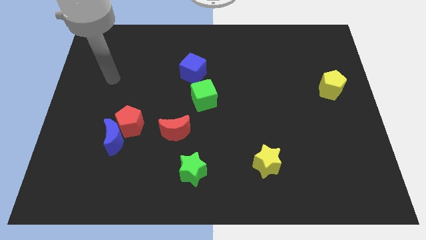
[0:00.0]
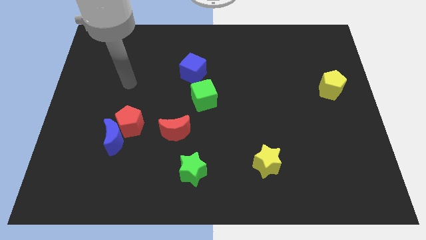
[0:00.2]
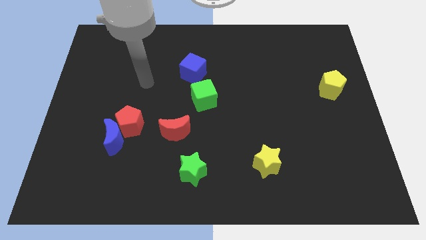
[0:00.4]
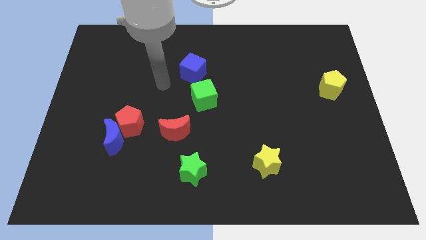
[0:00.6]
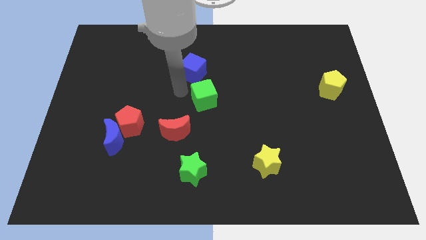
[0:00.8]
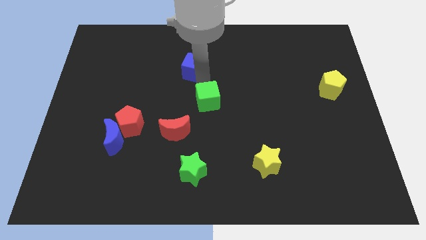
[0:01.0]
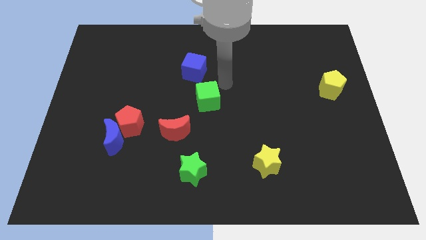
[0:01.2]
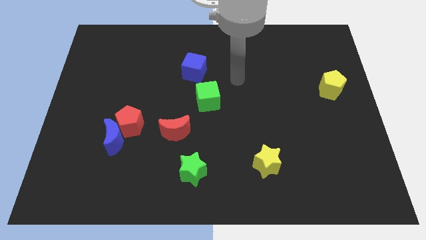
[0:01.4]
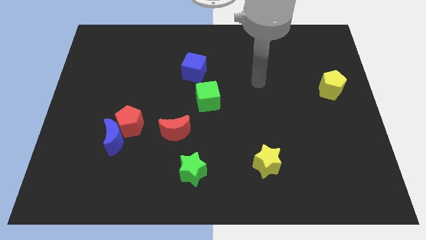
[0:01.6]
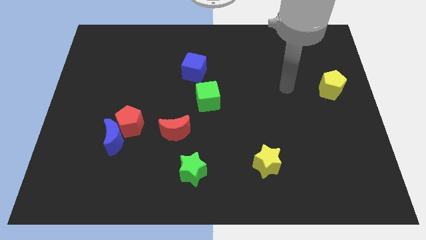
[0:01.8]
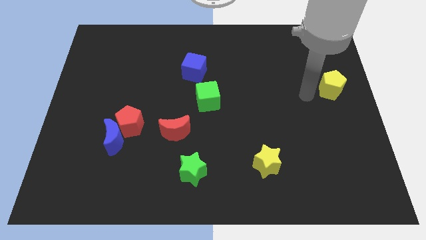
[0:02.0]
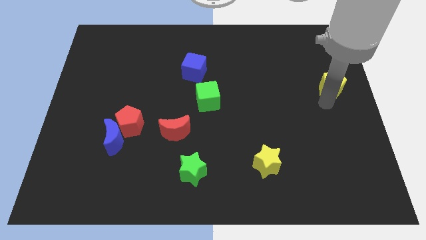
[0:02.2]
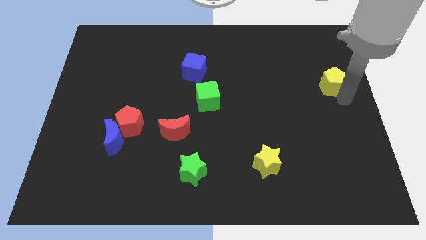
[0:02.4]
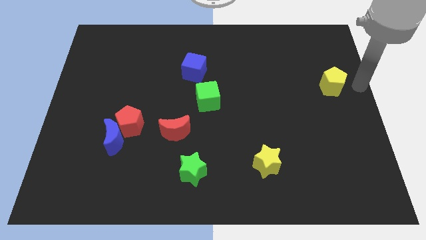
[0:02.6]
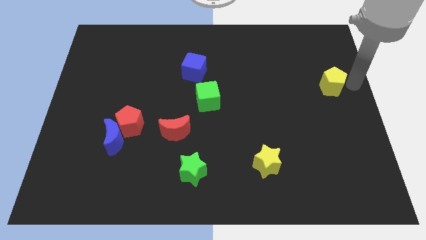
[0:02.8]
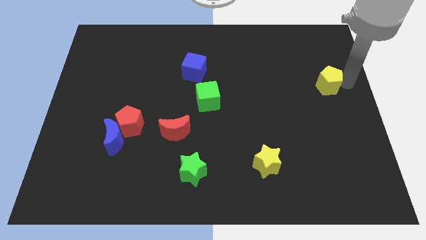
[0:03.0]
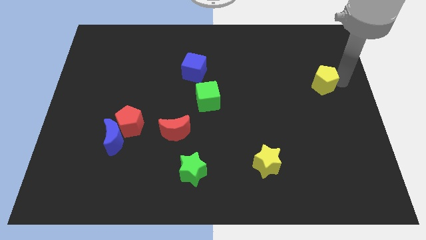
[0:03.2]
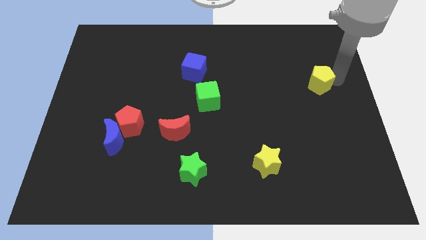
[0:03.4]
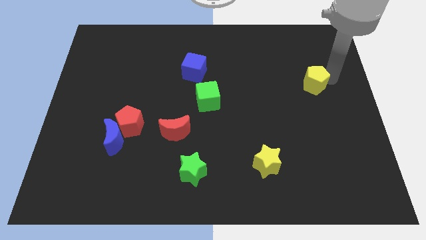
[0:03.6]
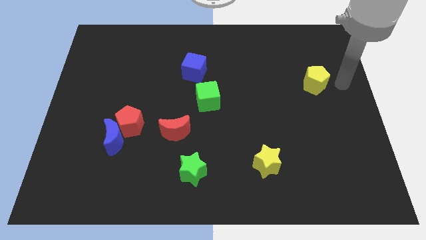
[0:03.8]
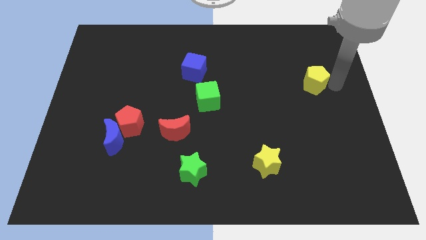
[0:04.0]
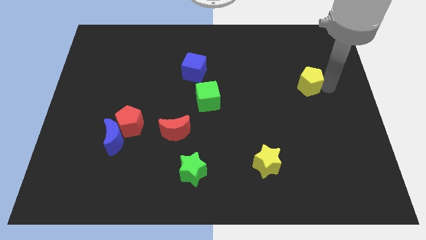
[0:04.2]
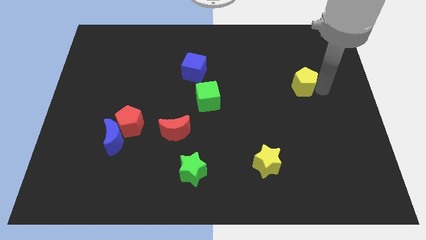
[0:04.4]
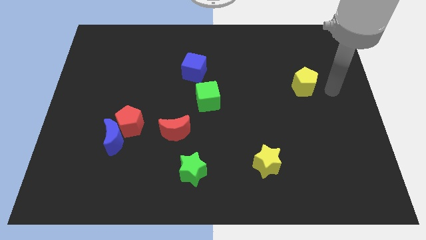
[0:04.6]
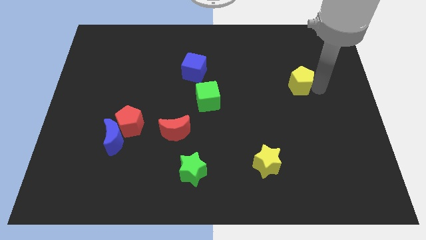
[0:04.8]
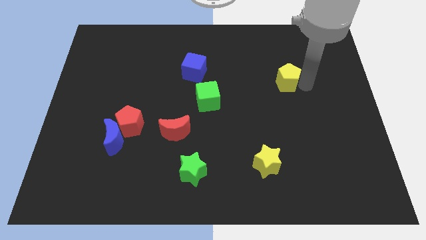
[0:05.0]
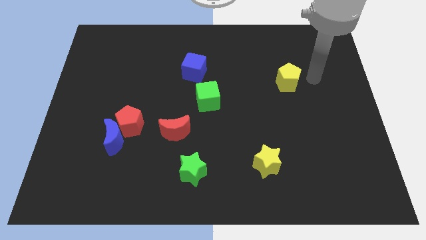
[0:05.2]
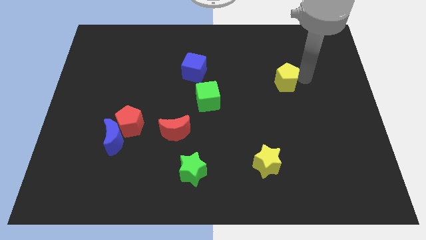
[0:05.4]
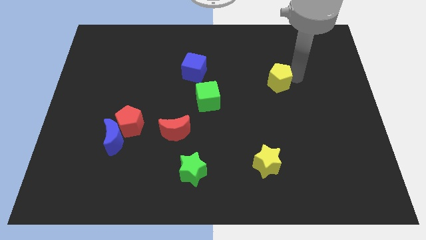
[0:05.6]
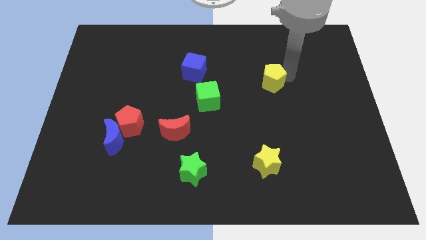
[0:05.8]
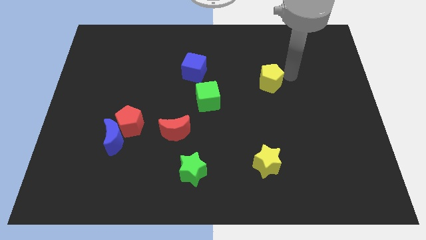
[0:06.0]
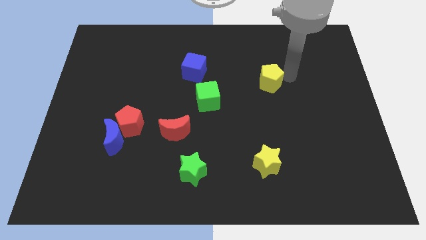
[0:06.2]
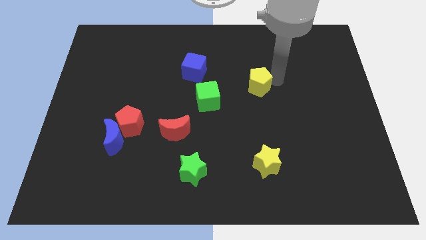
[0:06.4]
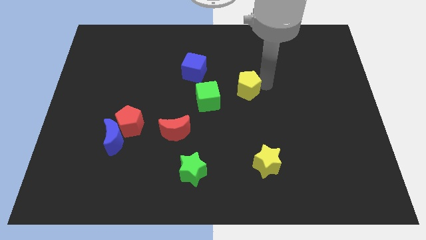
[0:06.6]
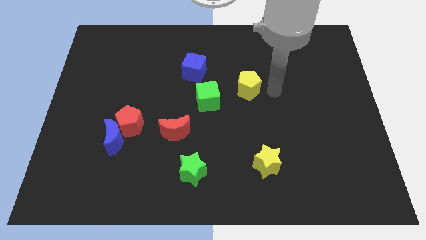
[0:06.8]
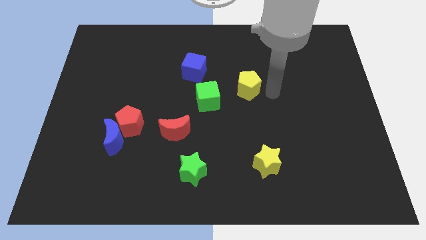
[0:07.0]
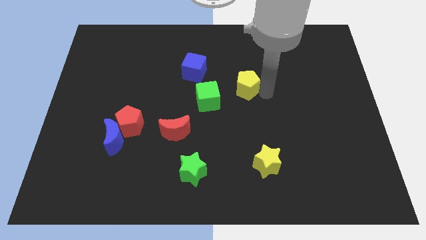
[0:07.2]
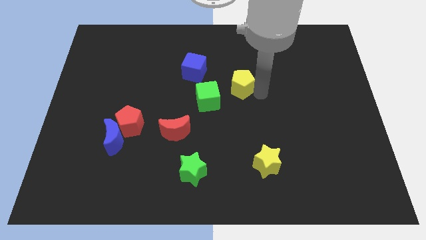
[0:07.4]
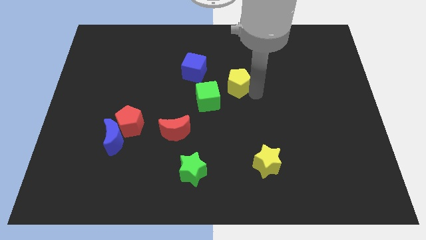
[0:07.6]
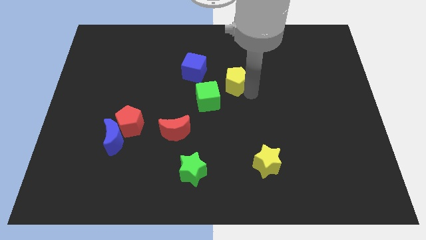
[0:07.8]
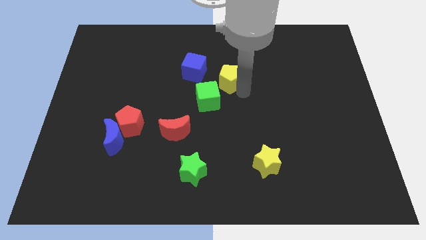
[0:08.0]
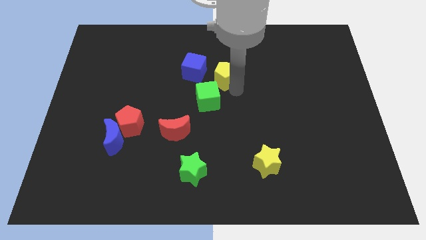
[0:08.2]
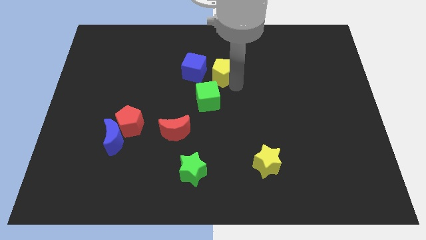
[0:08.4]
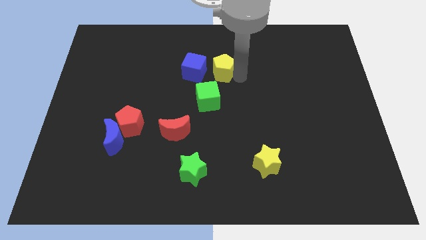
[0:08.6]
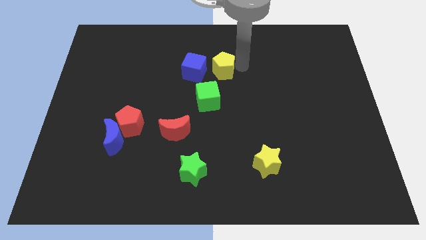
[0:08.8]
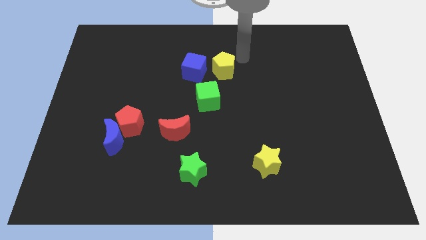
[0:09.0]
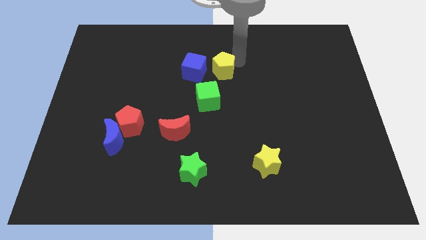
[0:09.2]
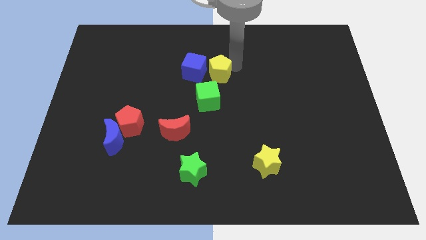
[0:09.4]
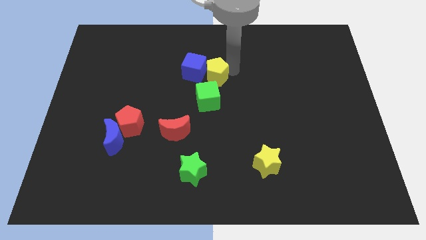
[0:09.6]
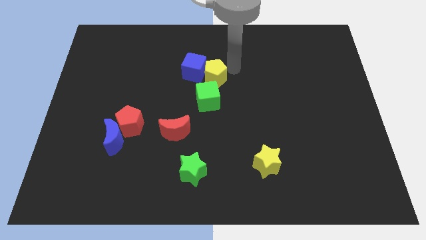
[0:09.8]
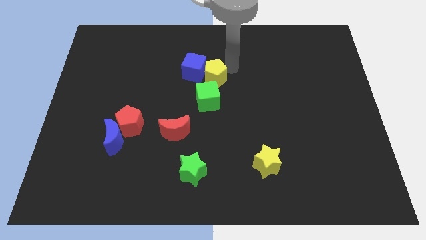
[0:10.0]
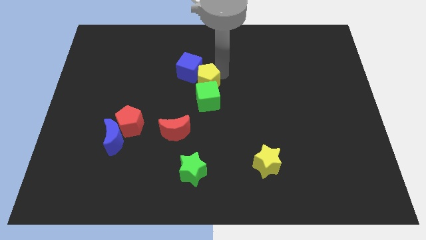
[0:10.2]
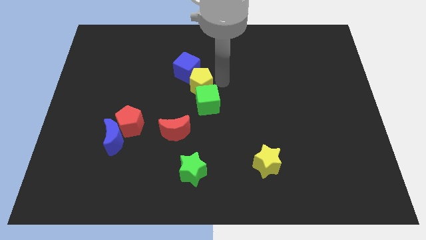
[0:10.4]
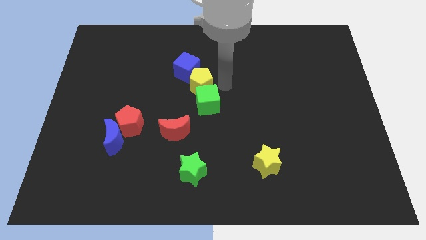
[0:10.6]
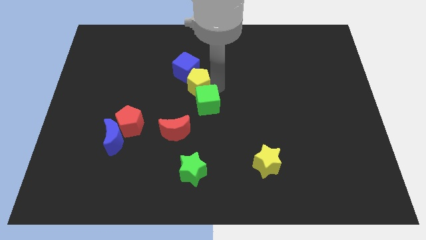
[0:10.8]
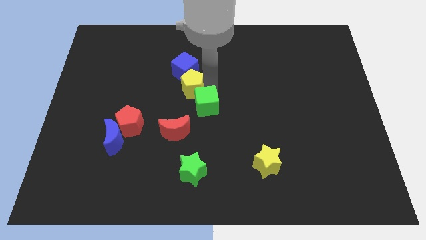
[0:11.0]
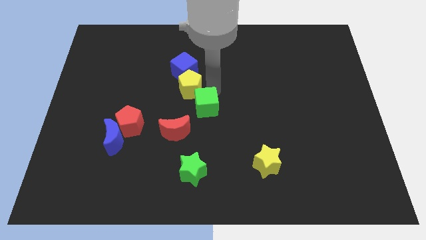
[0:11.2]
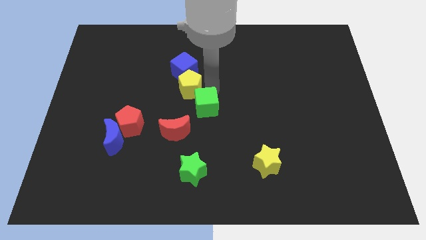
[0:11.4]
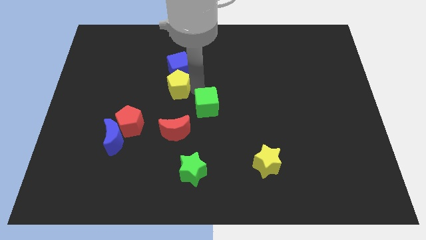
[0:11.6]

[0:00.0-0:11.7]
put the yellow pentagon to the bottom left of the blue cube

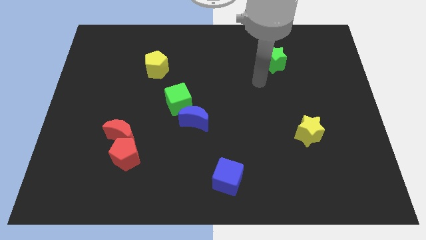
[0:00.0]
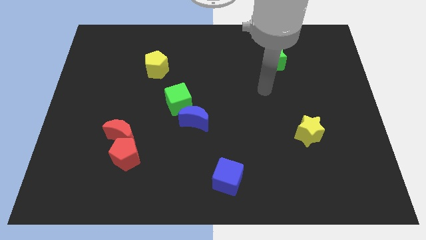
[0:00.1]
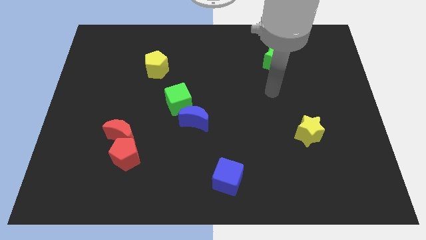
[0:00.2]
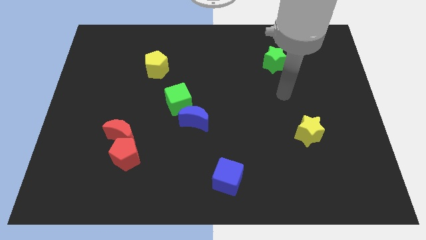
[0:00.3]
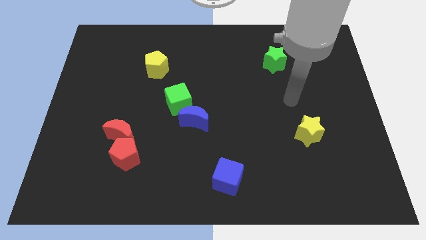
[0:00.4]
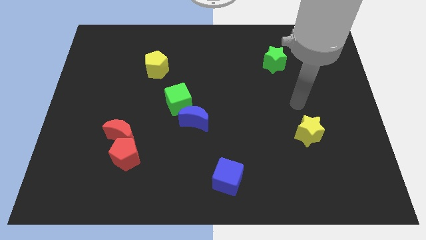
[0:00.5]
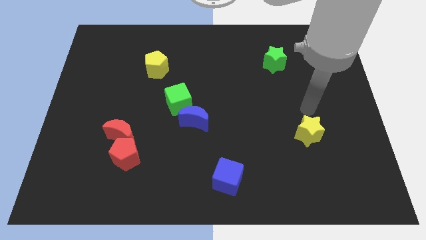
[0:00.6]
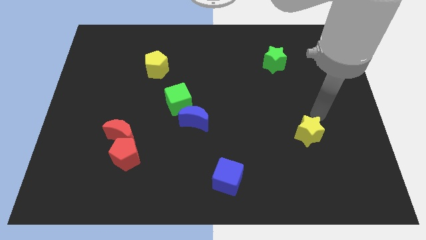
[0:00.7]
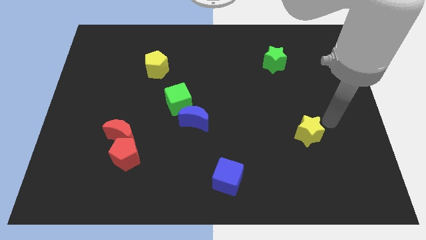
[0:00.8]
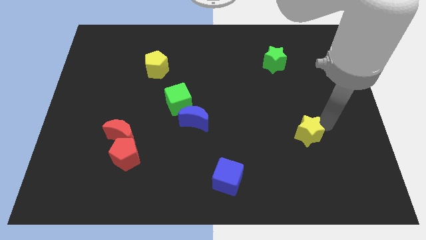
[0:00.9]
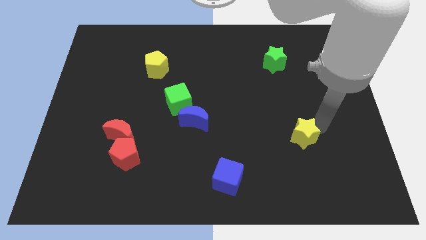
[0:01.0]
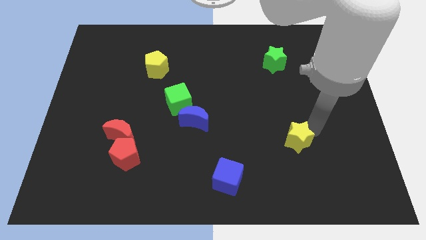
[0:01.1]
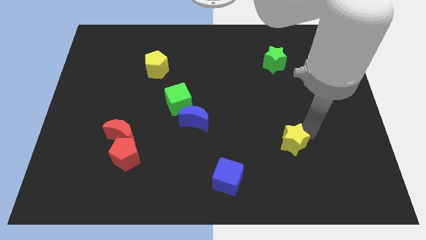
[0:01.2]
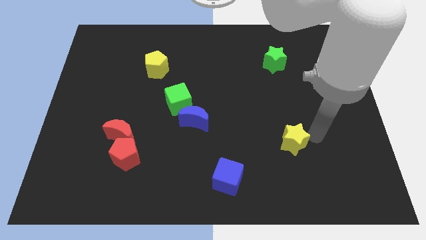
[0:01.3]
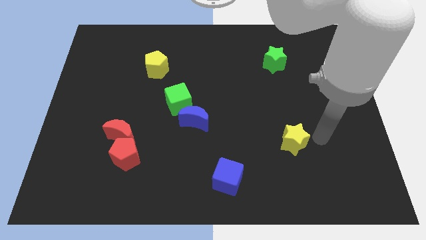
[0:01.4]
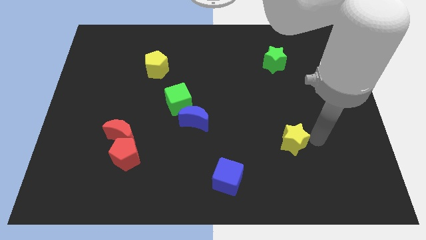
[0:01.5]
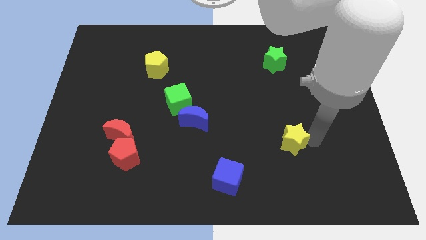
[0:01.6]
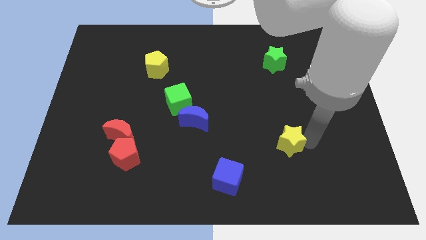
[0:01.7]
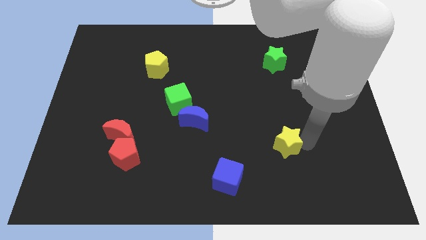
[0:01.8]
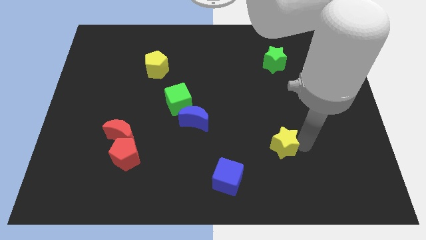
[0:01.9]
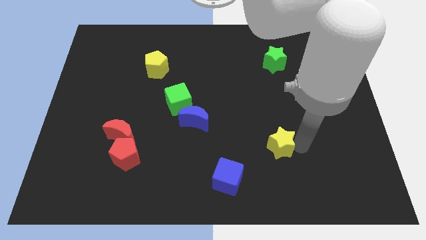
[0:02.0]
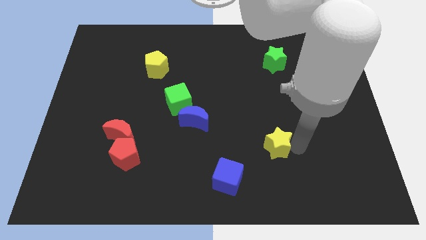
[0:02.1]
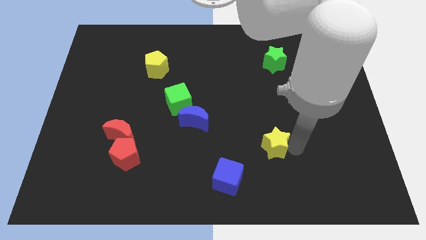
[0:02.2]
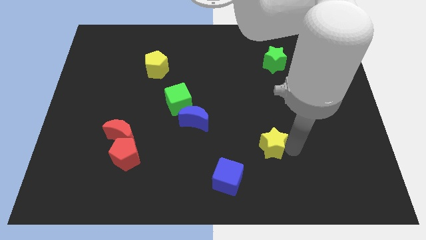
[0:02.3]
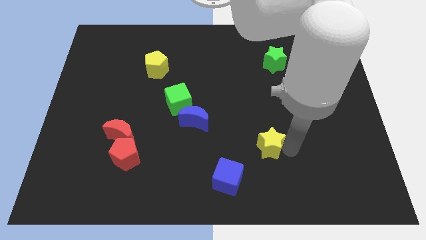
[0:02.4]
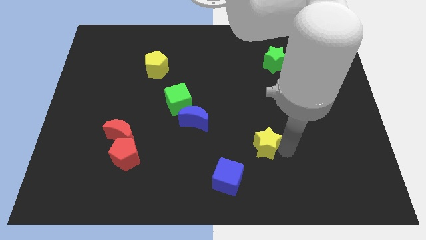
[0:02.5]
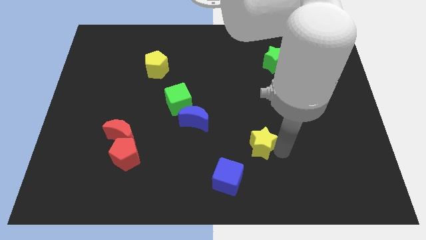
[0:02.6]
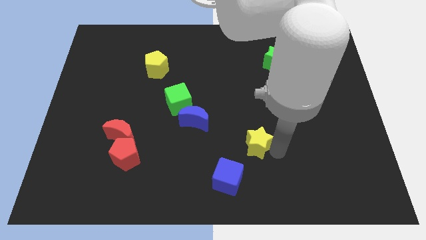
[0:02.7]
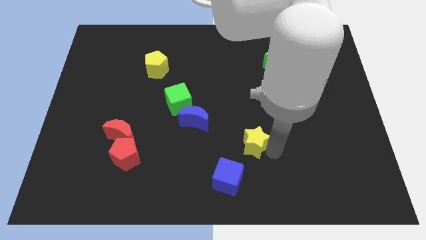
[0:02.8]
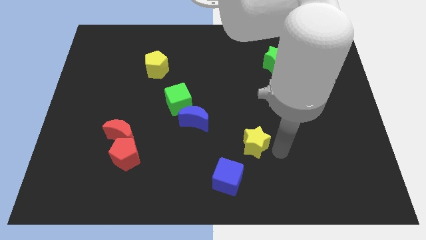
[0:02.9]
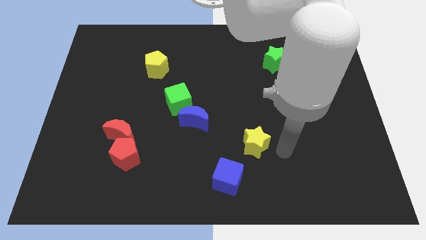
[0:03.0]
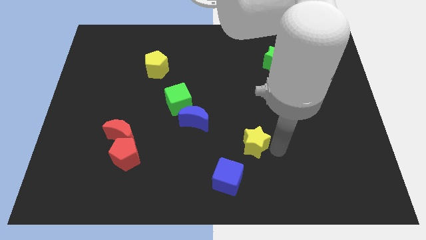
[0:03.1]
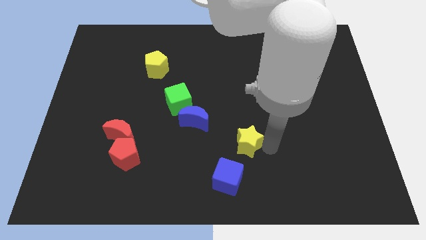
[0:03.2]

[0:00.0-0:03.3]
put the yellow star to the top of the blue cube
